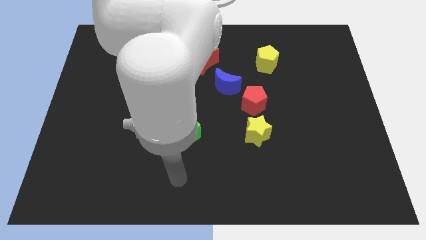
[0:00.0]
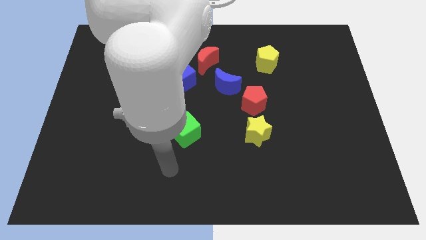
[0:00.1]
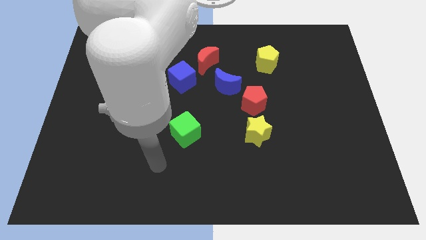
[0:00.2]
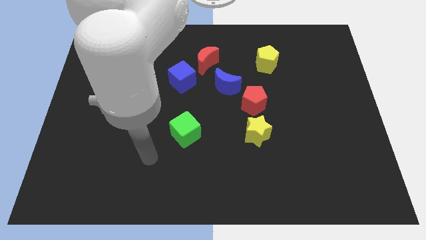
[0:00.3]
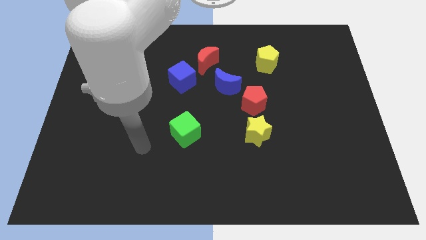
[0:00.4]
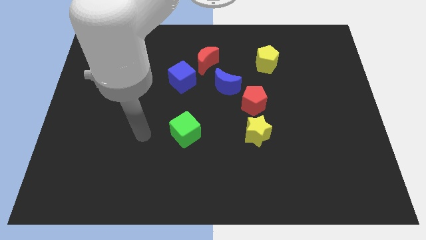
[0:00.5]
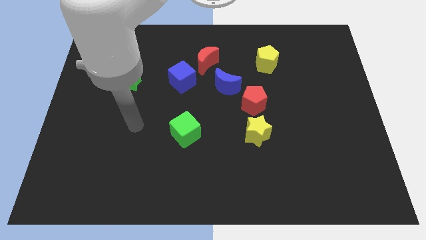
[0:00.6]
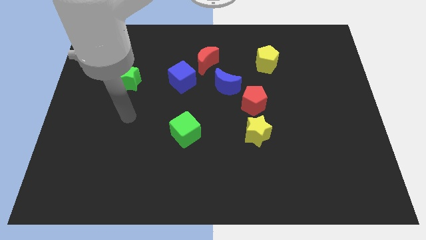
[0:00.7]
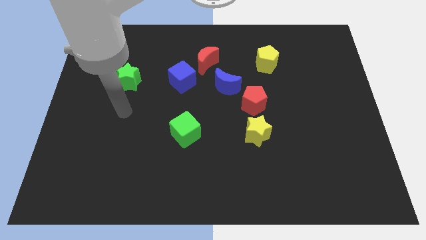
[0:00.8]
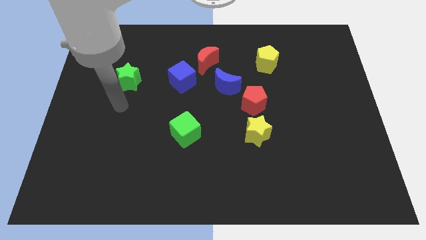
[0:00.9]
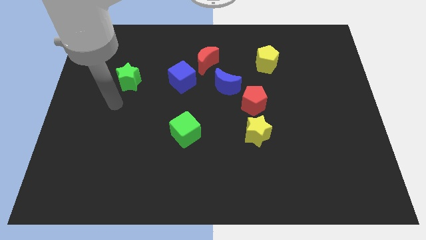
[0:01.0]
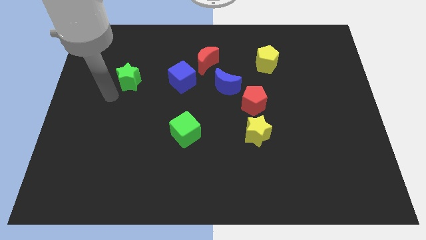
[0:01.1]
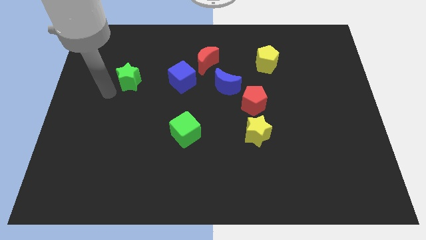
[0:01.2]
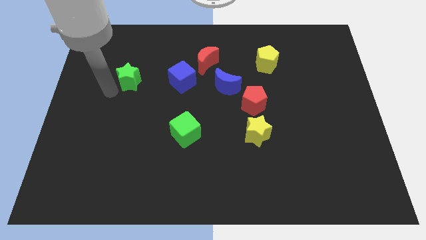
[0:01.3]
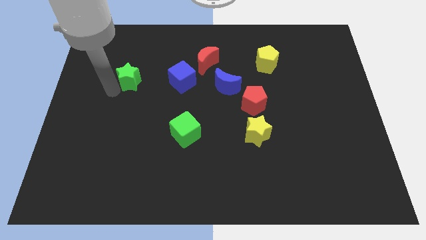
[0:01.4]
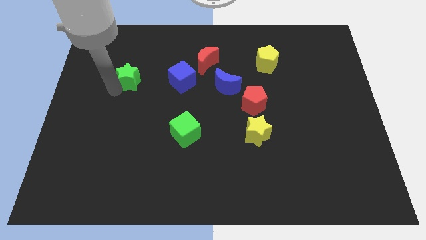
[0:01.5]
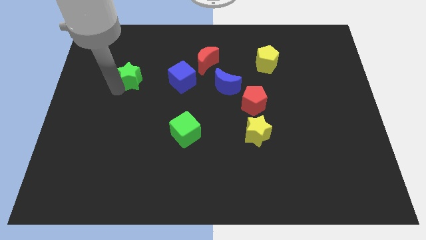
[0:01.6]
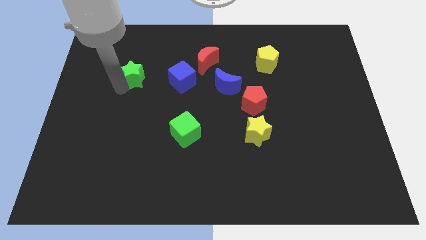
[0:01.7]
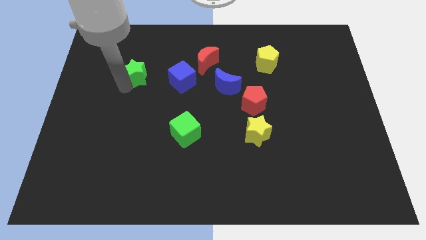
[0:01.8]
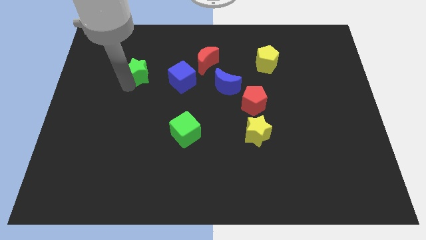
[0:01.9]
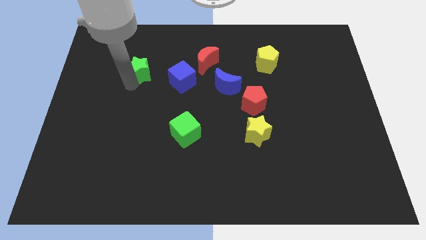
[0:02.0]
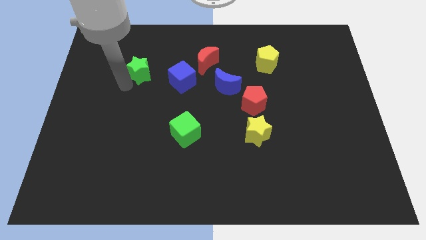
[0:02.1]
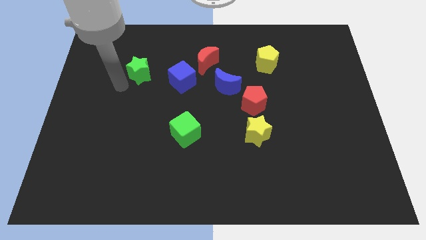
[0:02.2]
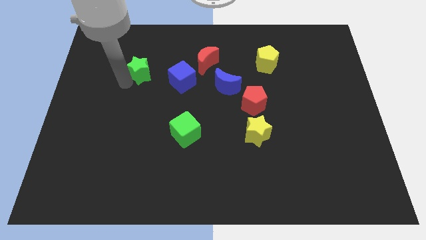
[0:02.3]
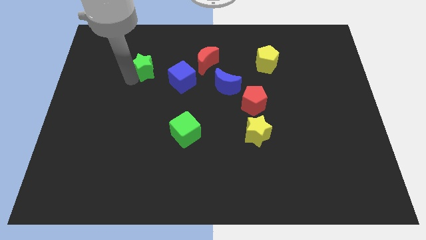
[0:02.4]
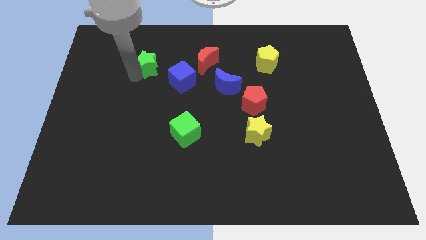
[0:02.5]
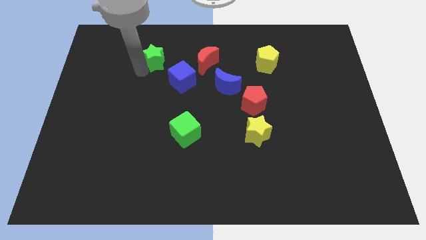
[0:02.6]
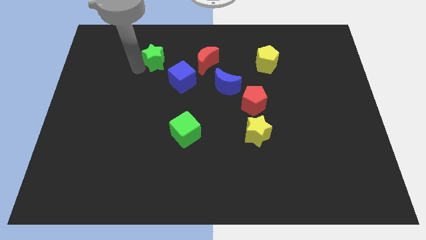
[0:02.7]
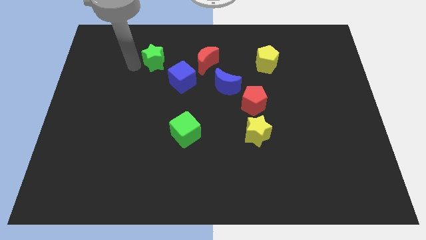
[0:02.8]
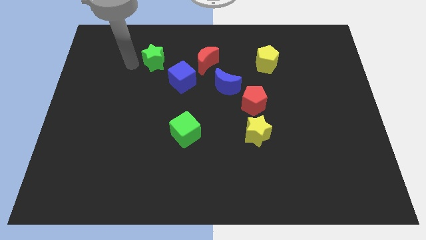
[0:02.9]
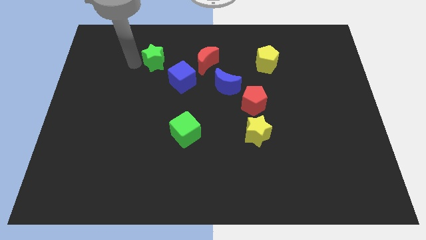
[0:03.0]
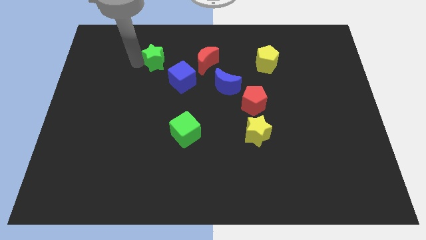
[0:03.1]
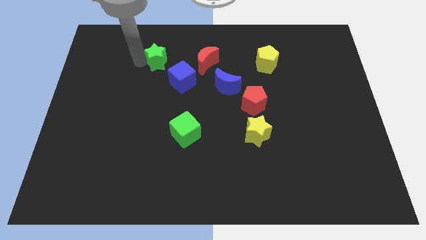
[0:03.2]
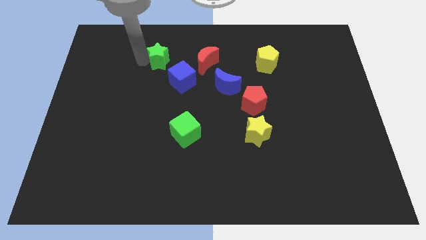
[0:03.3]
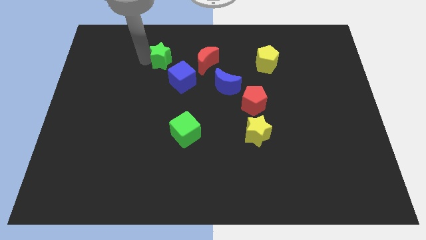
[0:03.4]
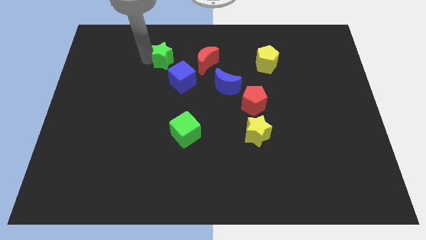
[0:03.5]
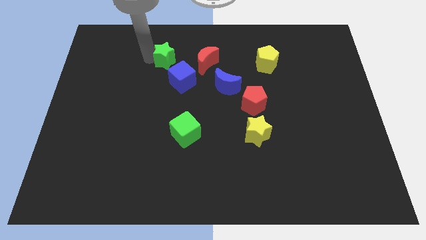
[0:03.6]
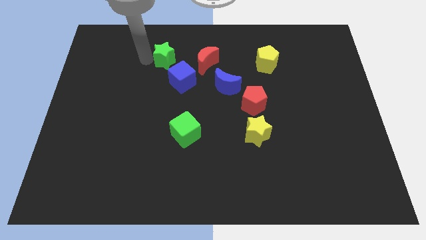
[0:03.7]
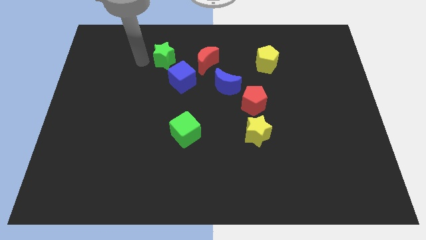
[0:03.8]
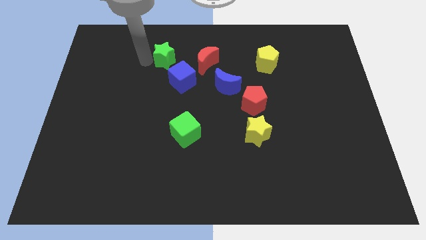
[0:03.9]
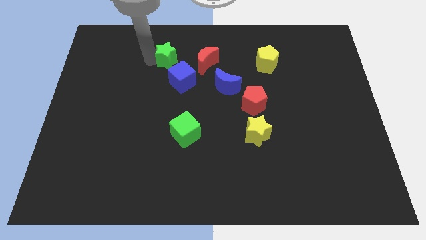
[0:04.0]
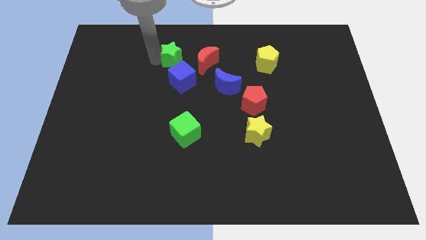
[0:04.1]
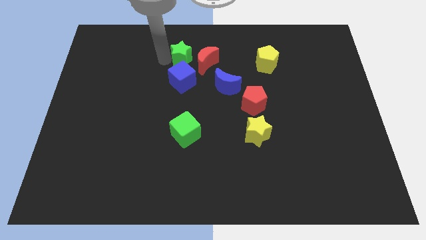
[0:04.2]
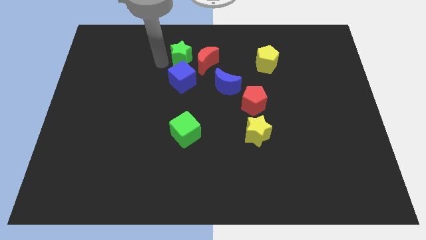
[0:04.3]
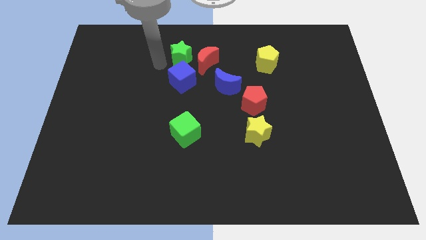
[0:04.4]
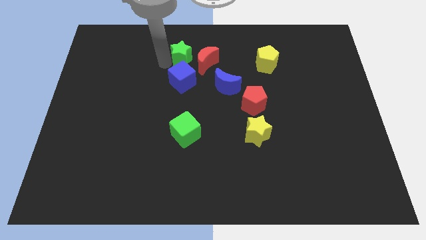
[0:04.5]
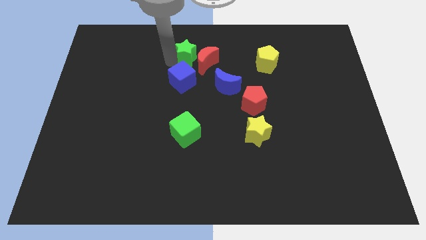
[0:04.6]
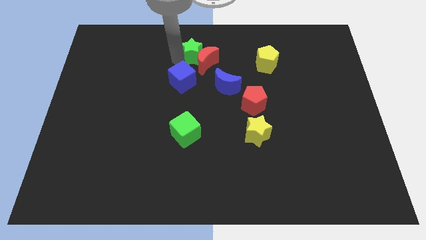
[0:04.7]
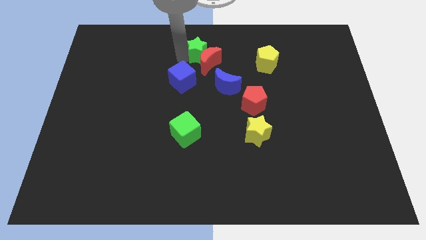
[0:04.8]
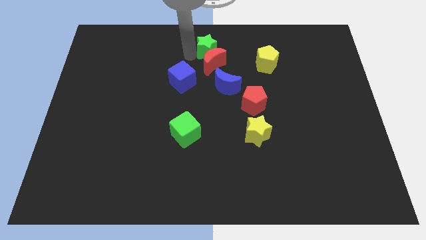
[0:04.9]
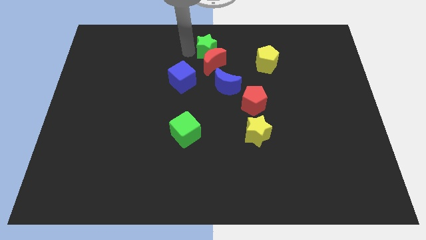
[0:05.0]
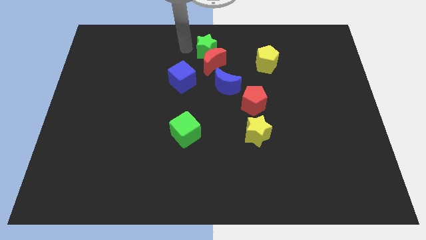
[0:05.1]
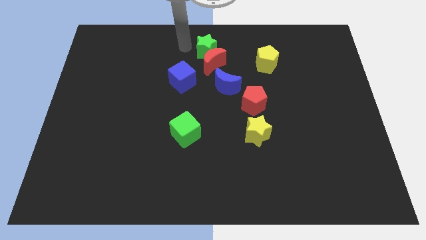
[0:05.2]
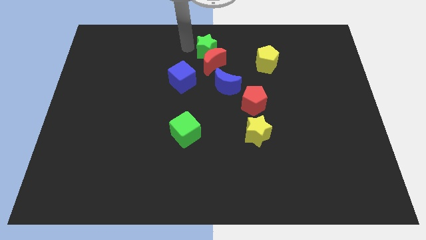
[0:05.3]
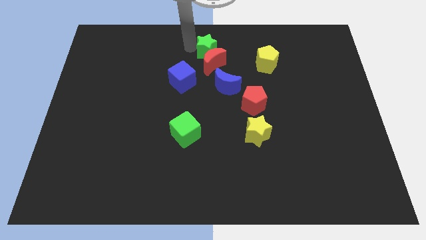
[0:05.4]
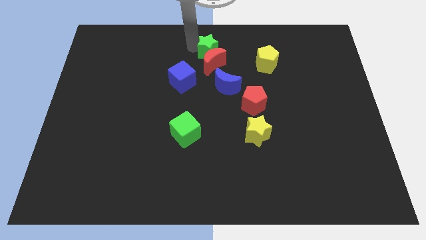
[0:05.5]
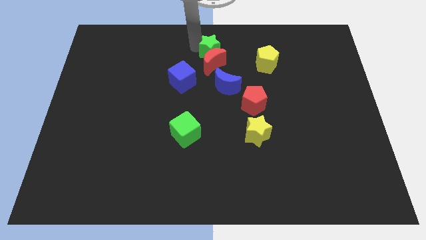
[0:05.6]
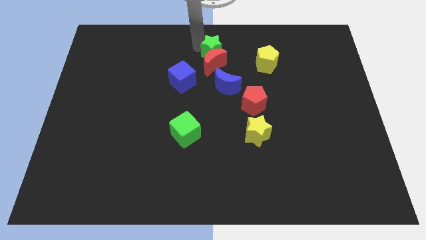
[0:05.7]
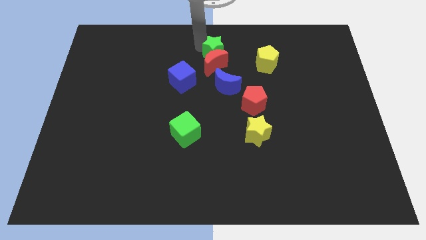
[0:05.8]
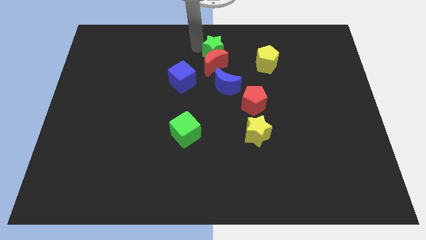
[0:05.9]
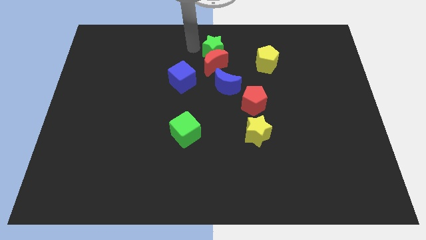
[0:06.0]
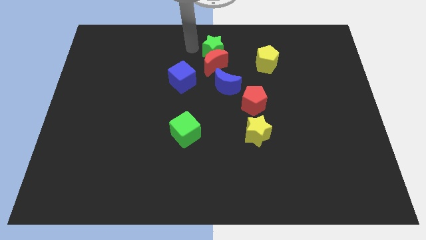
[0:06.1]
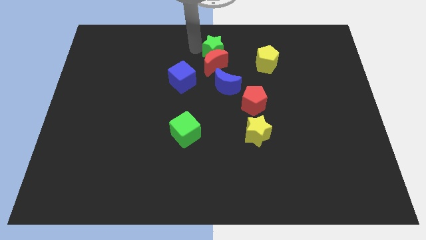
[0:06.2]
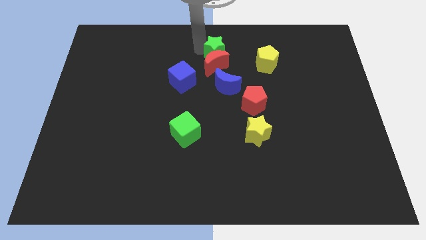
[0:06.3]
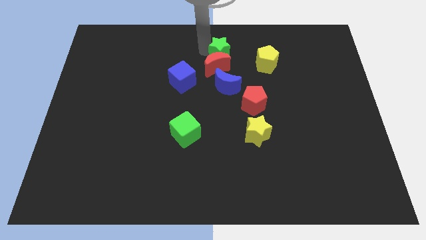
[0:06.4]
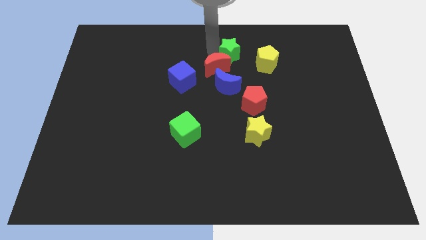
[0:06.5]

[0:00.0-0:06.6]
push the green star right

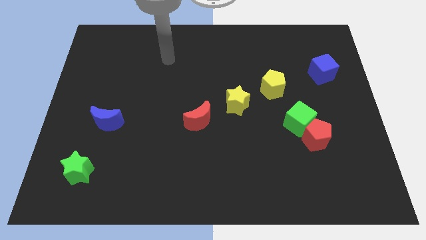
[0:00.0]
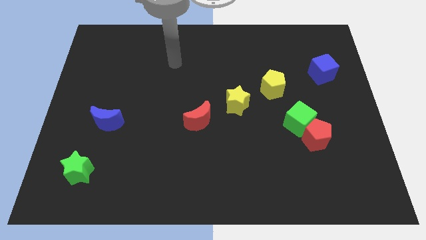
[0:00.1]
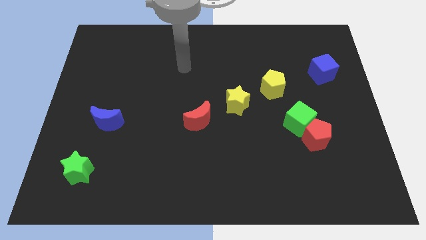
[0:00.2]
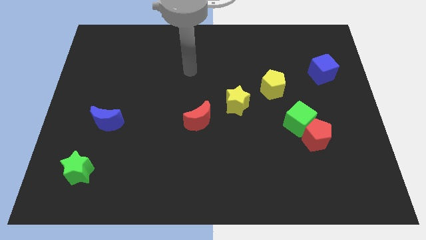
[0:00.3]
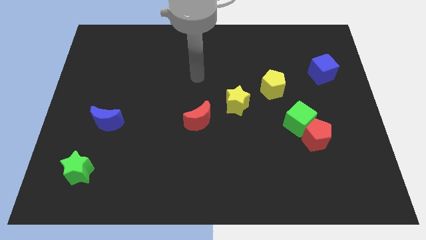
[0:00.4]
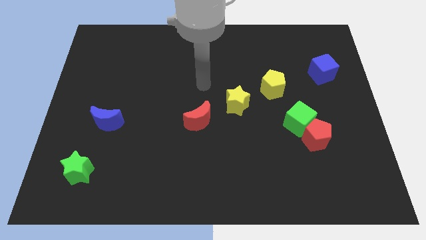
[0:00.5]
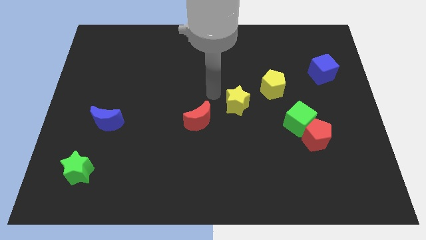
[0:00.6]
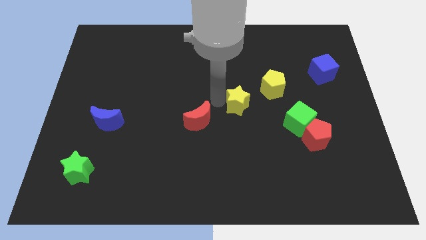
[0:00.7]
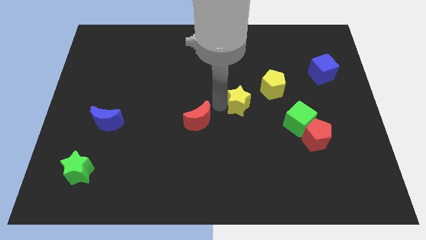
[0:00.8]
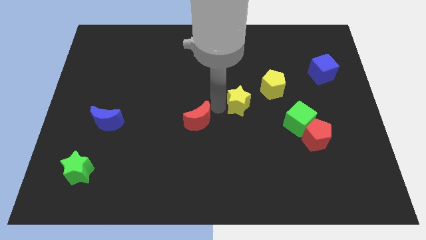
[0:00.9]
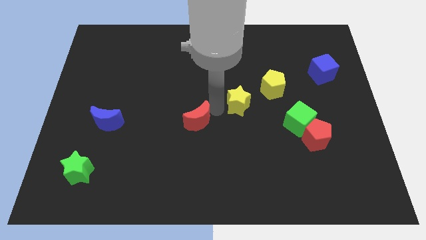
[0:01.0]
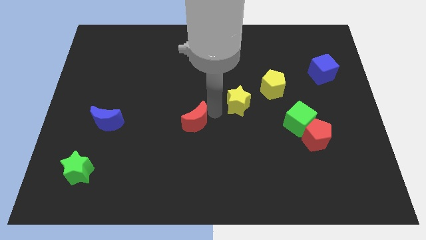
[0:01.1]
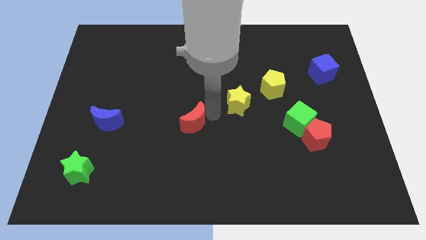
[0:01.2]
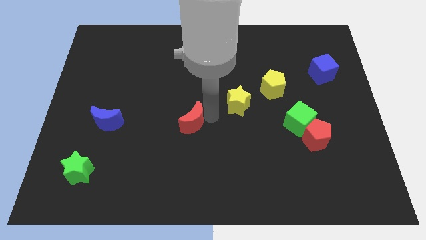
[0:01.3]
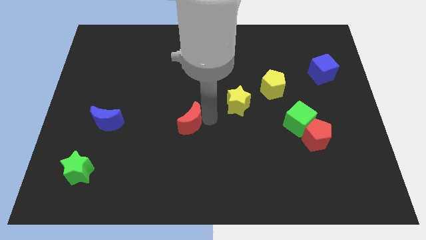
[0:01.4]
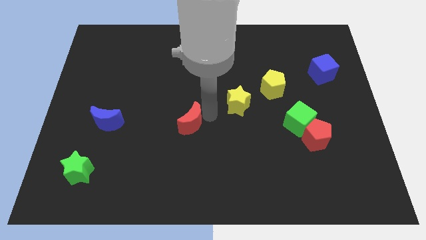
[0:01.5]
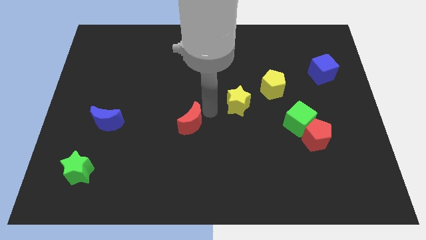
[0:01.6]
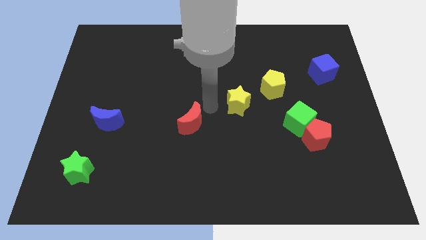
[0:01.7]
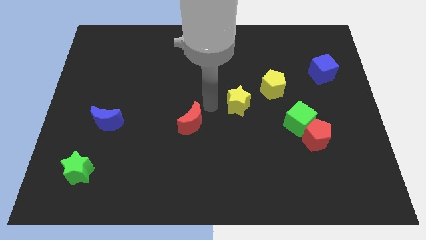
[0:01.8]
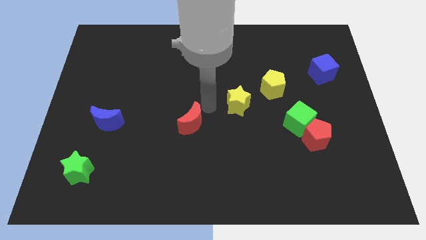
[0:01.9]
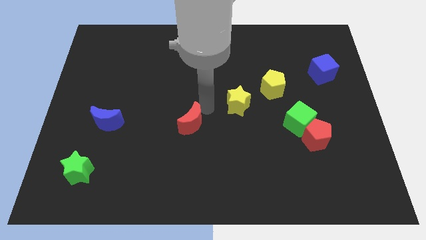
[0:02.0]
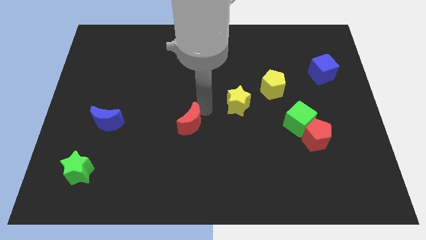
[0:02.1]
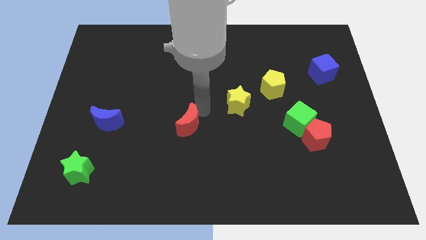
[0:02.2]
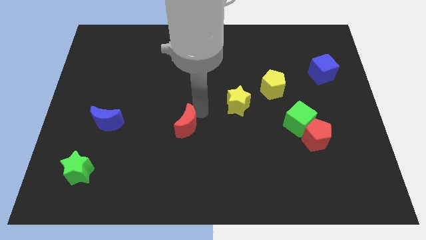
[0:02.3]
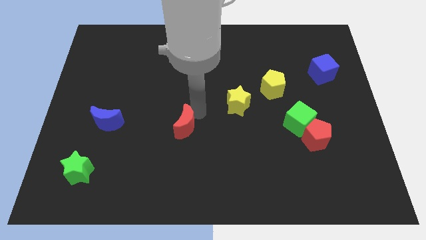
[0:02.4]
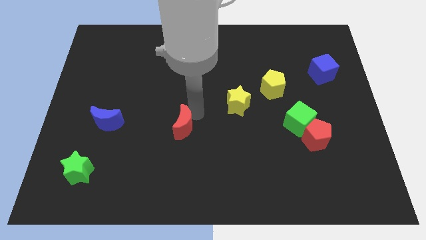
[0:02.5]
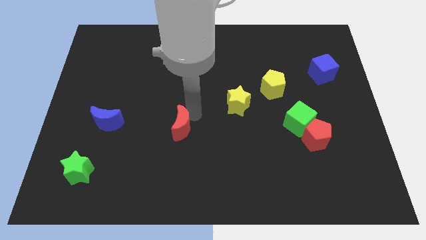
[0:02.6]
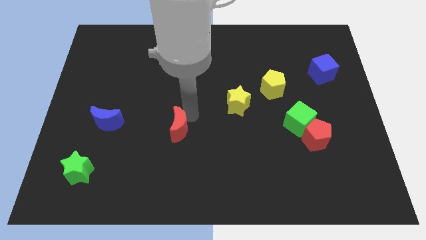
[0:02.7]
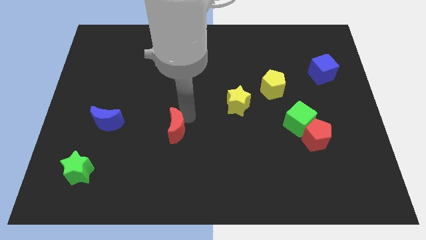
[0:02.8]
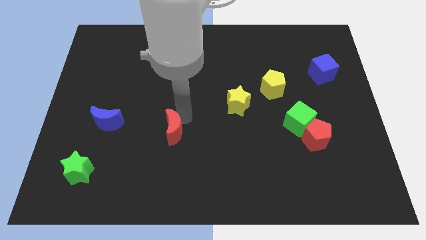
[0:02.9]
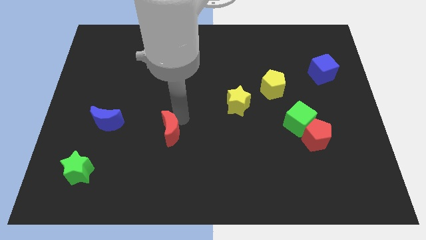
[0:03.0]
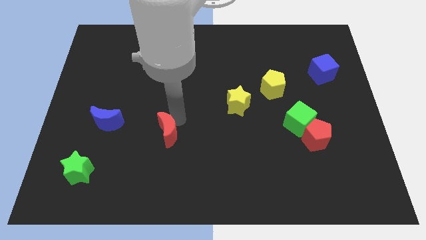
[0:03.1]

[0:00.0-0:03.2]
slide the red moon down and then left a bit
